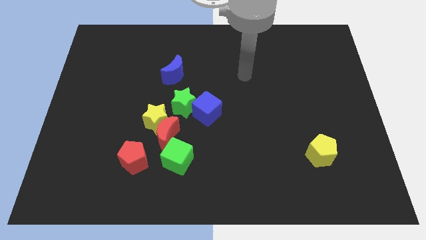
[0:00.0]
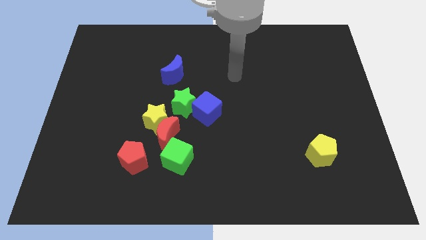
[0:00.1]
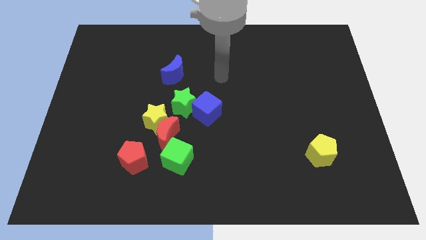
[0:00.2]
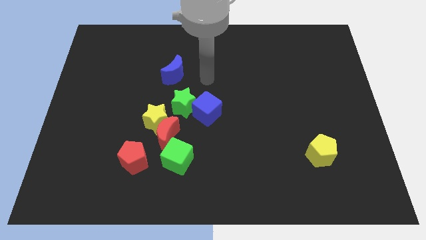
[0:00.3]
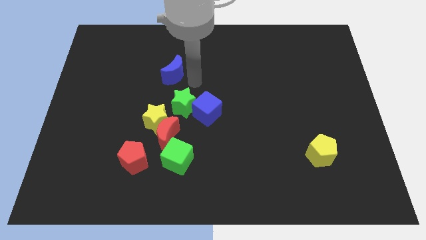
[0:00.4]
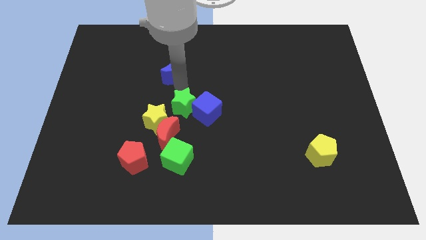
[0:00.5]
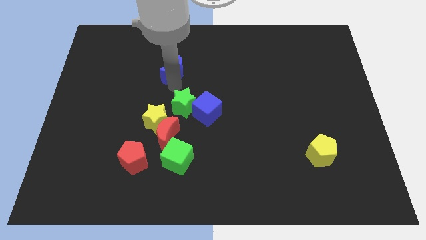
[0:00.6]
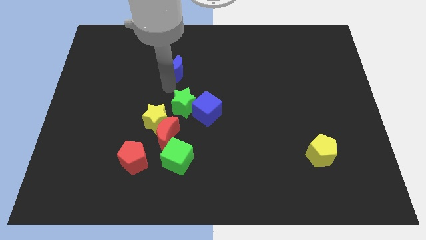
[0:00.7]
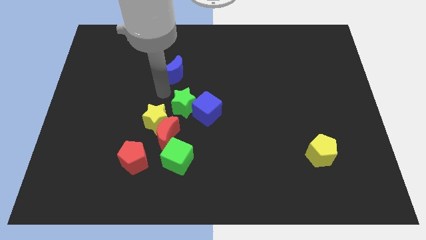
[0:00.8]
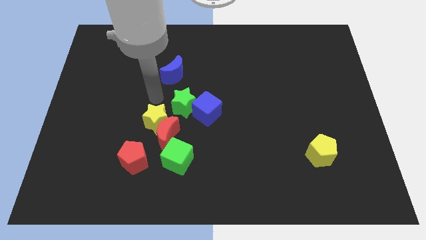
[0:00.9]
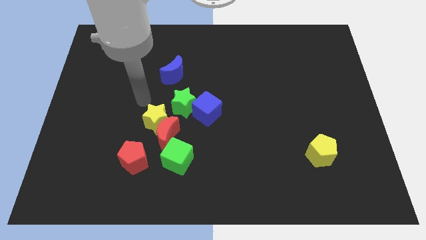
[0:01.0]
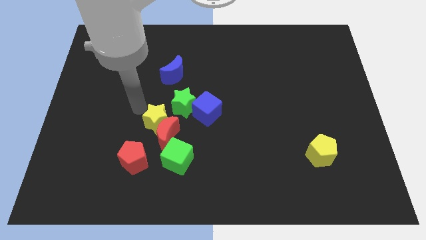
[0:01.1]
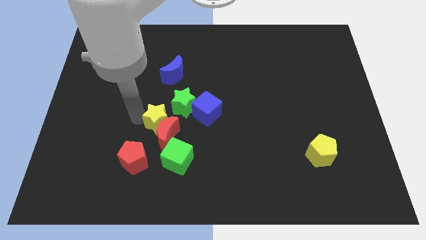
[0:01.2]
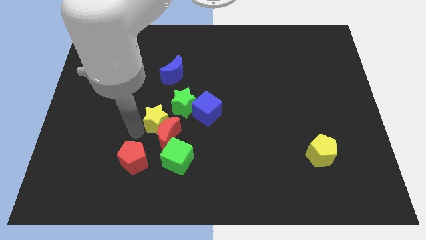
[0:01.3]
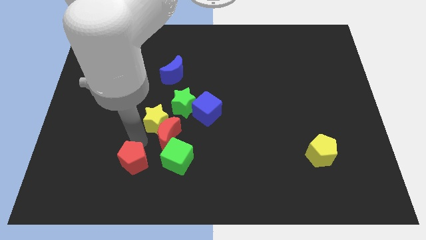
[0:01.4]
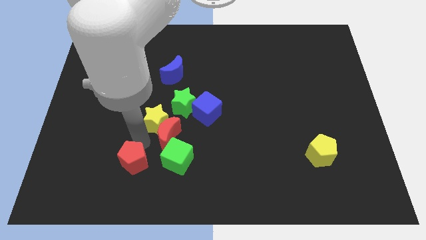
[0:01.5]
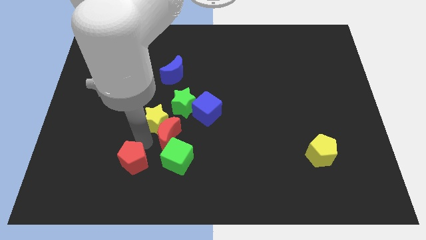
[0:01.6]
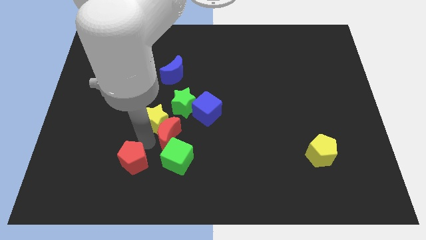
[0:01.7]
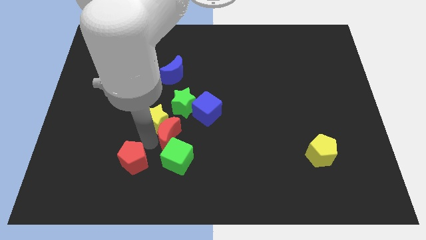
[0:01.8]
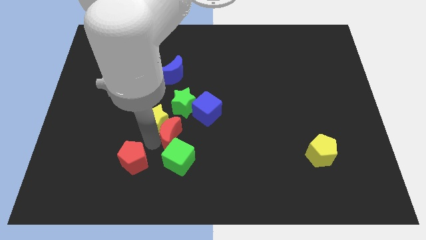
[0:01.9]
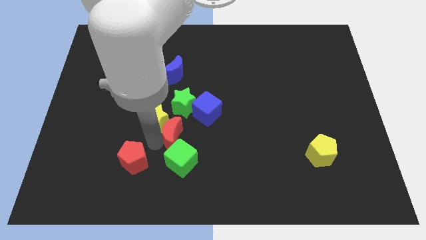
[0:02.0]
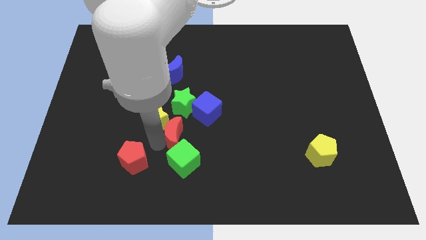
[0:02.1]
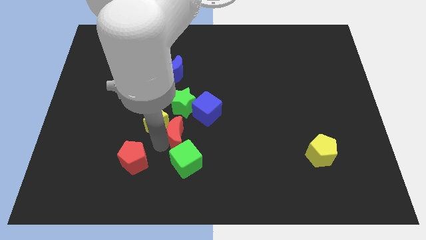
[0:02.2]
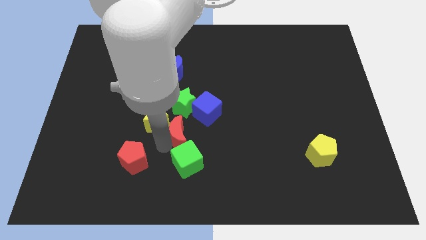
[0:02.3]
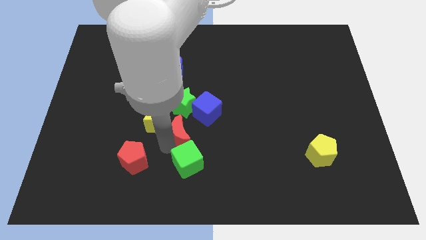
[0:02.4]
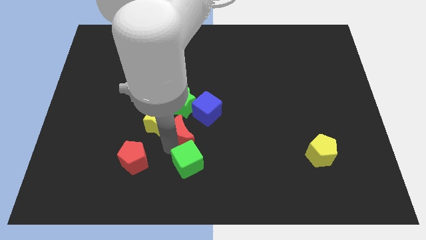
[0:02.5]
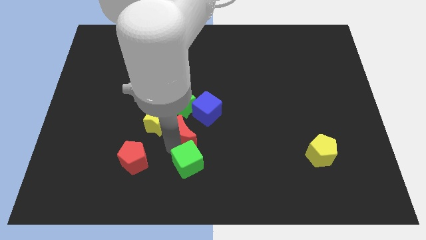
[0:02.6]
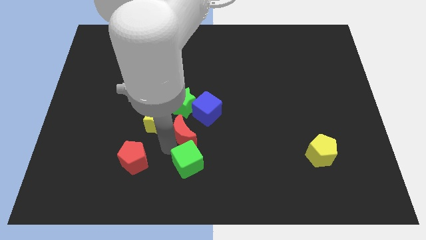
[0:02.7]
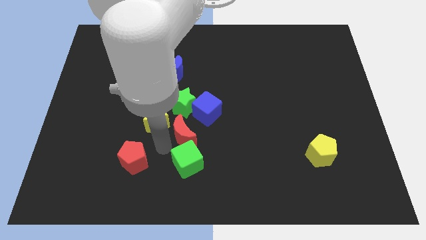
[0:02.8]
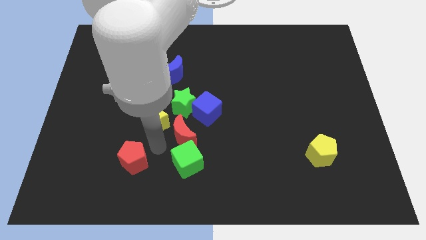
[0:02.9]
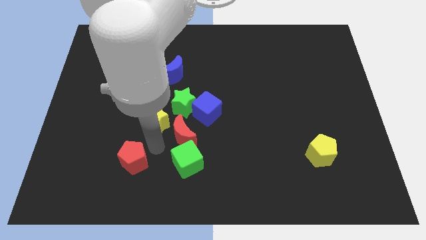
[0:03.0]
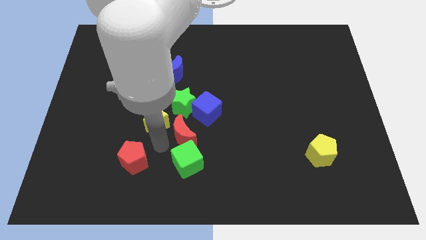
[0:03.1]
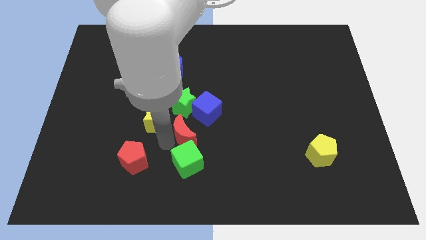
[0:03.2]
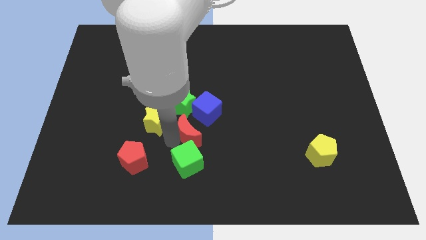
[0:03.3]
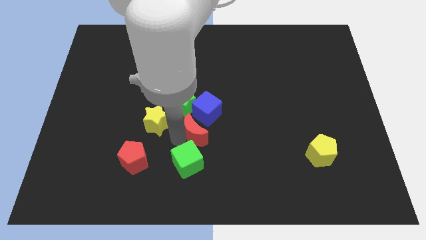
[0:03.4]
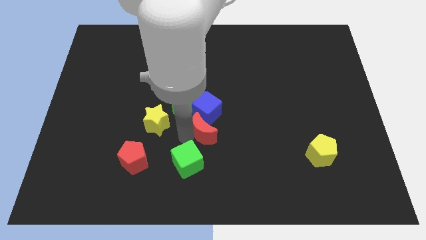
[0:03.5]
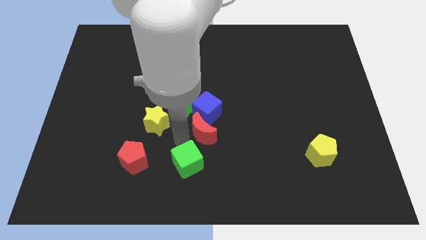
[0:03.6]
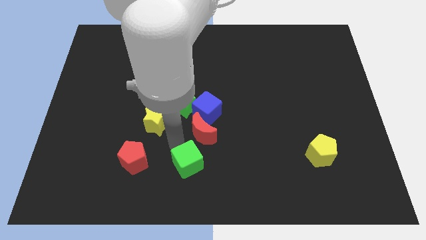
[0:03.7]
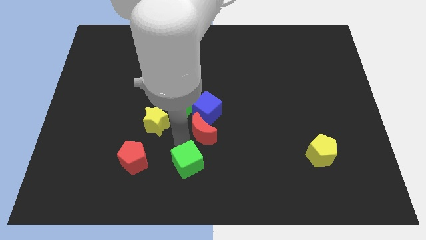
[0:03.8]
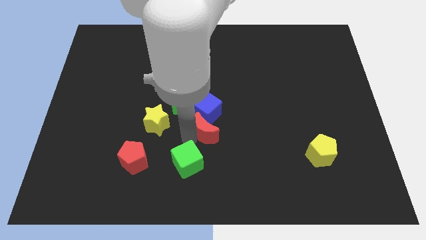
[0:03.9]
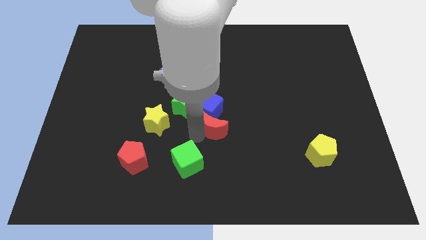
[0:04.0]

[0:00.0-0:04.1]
push the red moon somewhat diagonally upwards and right

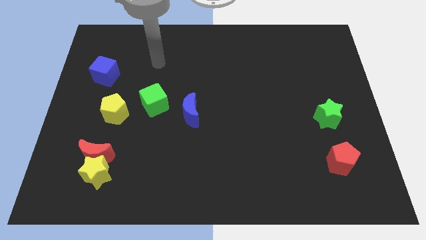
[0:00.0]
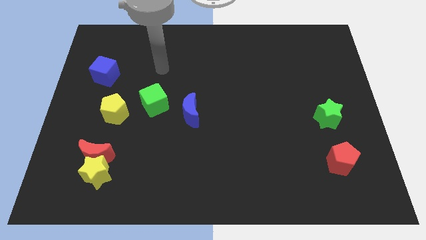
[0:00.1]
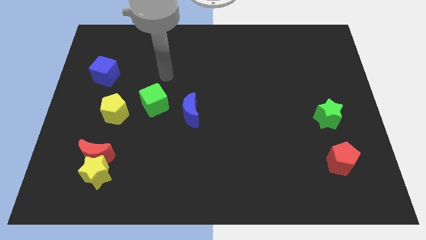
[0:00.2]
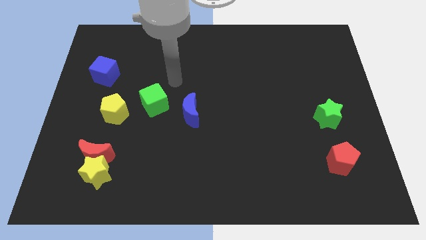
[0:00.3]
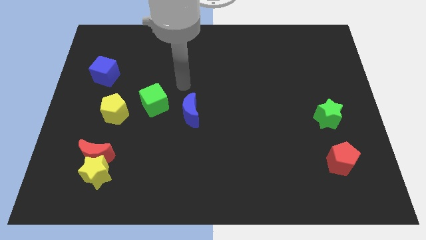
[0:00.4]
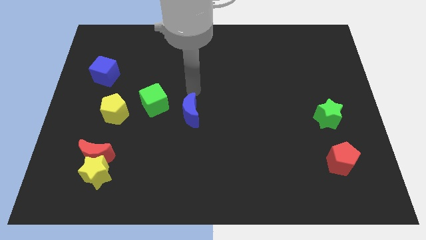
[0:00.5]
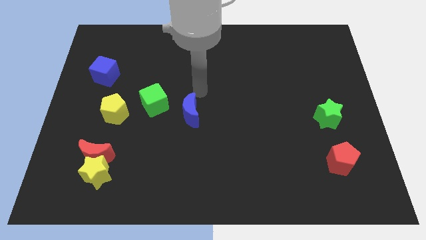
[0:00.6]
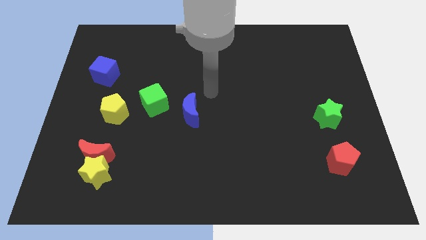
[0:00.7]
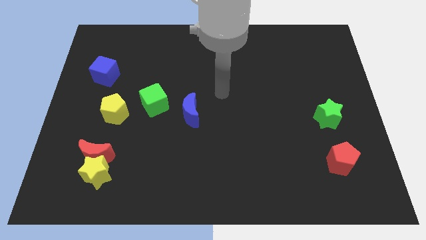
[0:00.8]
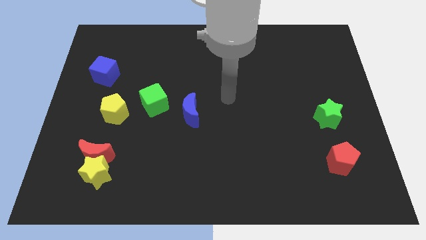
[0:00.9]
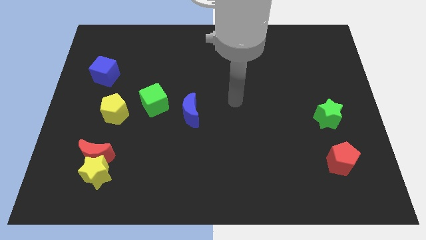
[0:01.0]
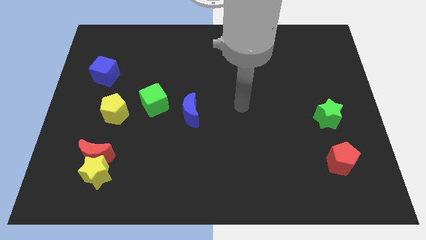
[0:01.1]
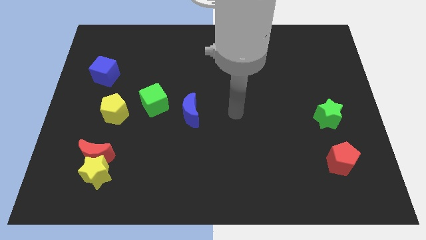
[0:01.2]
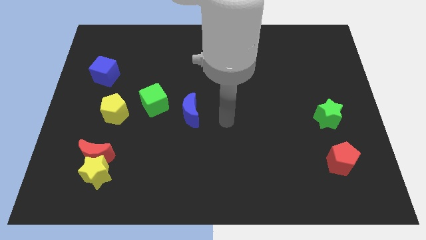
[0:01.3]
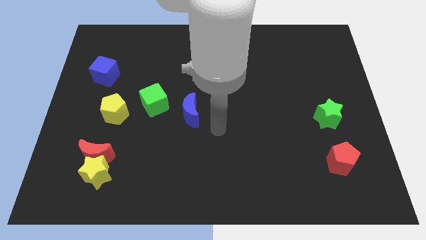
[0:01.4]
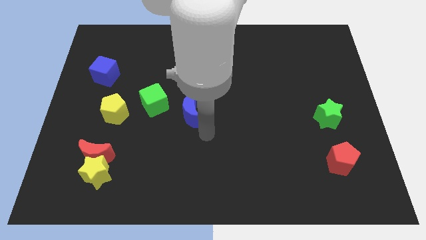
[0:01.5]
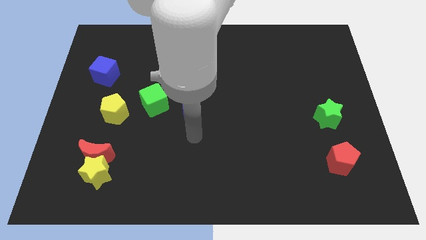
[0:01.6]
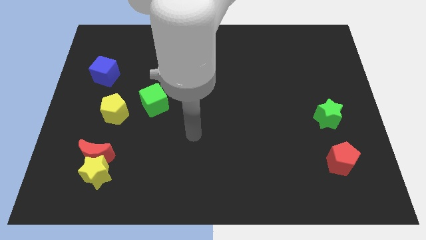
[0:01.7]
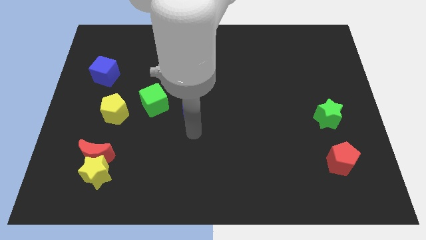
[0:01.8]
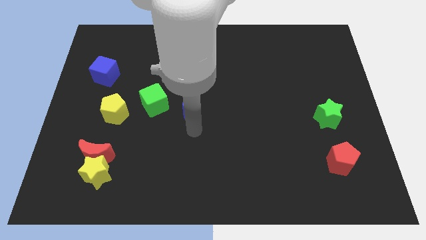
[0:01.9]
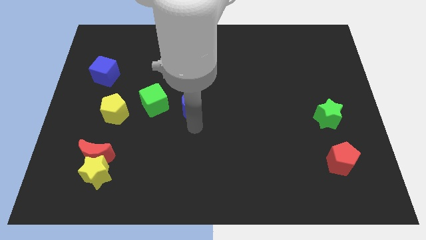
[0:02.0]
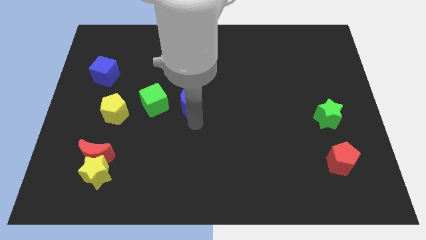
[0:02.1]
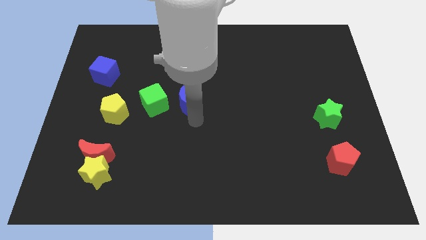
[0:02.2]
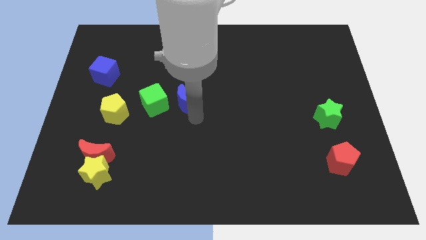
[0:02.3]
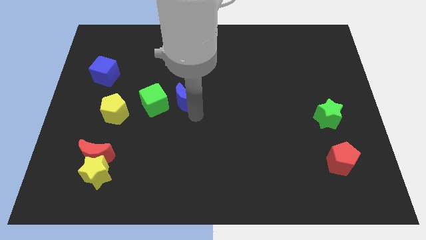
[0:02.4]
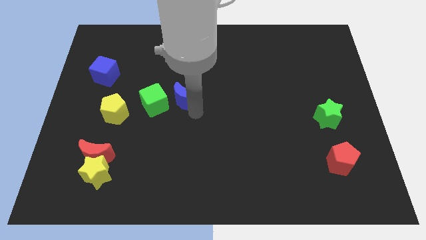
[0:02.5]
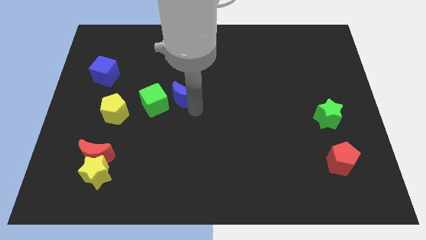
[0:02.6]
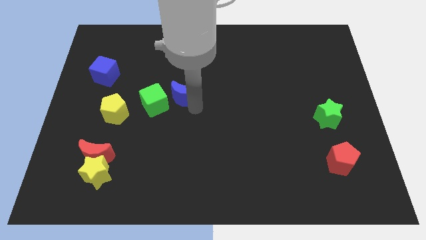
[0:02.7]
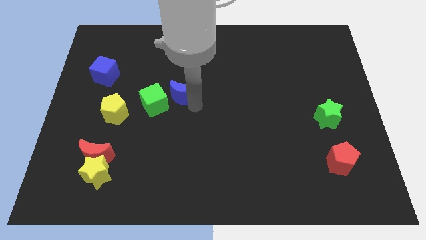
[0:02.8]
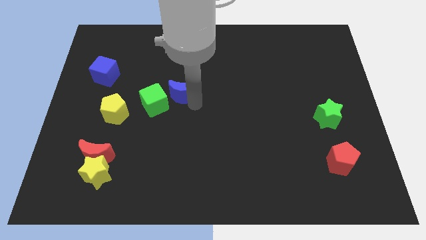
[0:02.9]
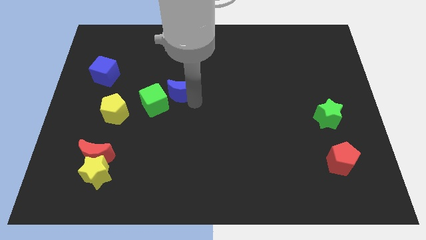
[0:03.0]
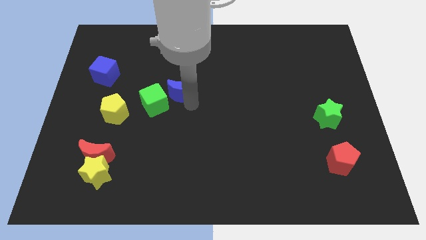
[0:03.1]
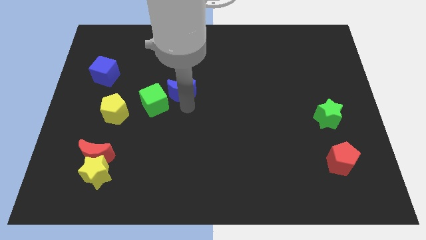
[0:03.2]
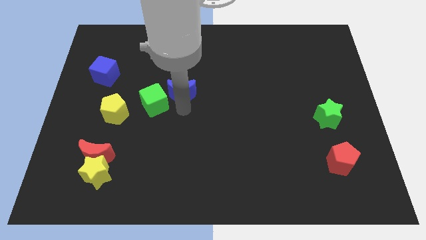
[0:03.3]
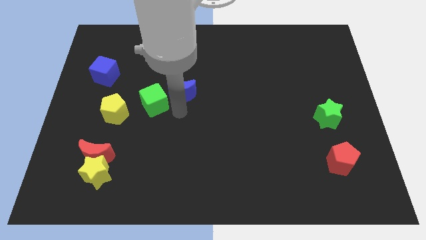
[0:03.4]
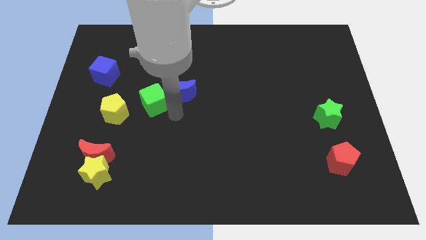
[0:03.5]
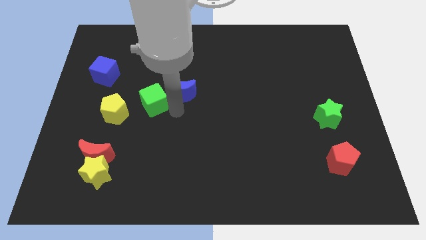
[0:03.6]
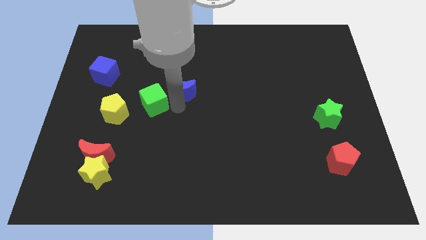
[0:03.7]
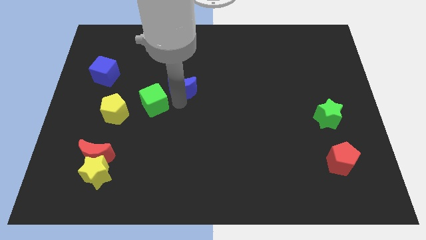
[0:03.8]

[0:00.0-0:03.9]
slightly push the blue moon up
